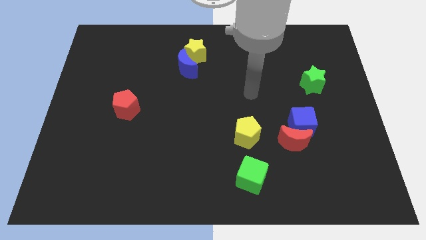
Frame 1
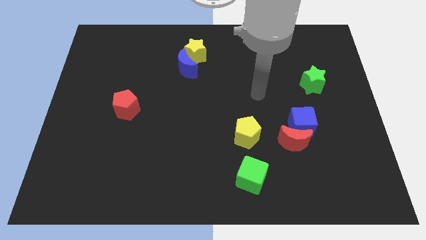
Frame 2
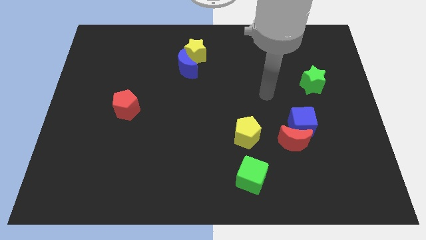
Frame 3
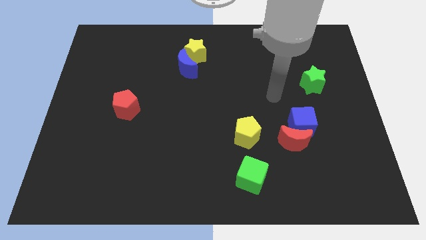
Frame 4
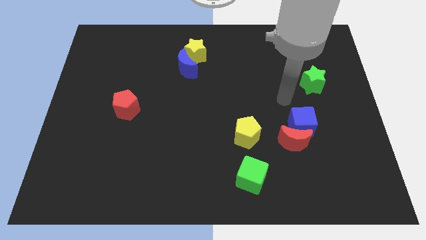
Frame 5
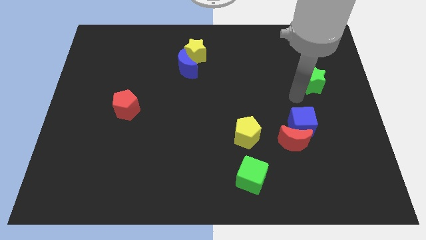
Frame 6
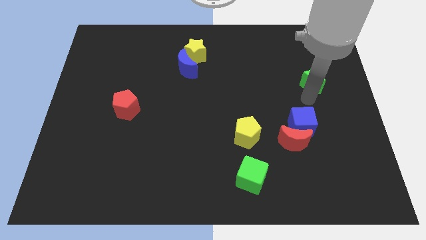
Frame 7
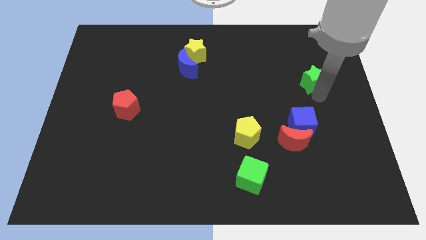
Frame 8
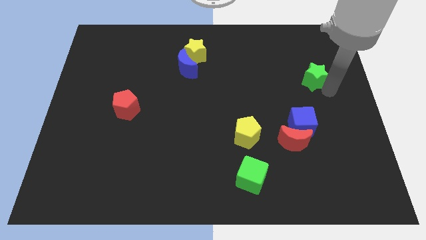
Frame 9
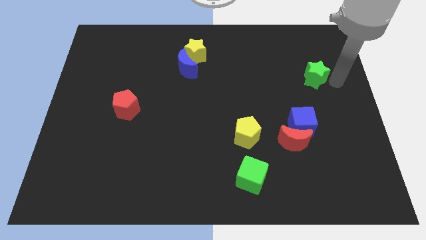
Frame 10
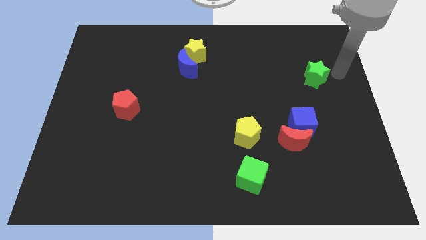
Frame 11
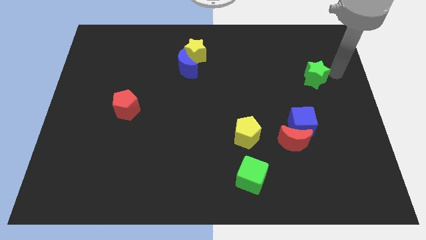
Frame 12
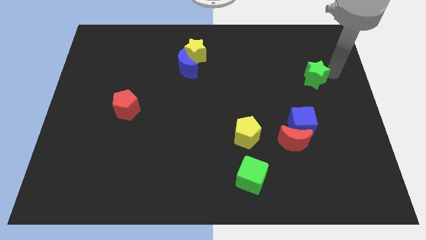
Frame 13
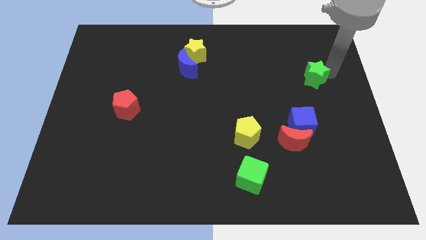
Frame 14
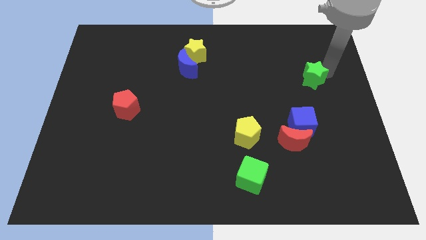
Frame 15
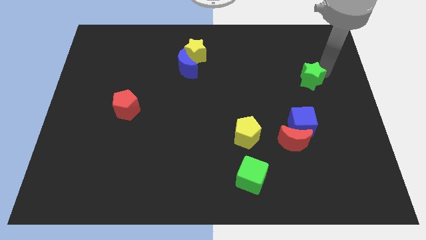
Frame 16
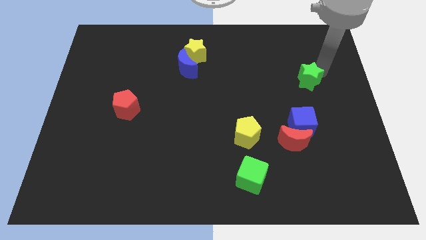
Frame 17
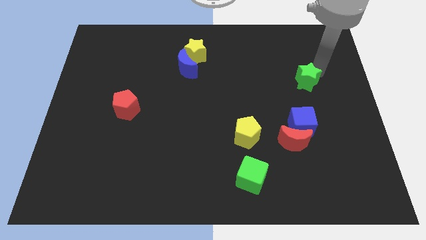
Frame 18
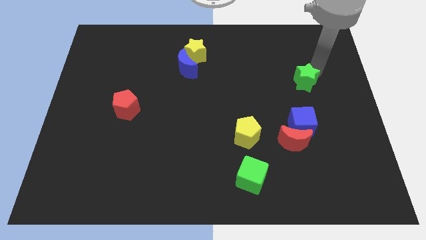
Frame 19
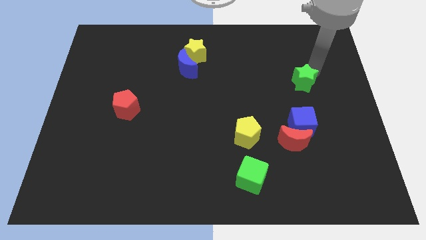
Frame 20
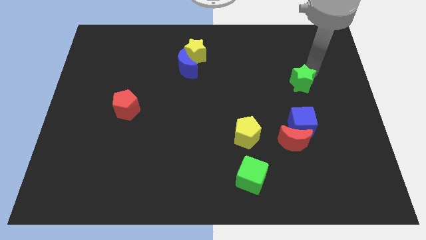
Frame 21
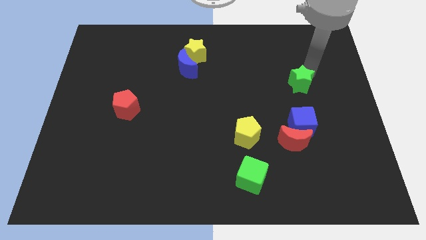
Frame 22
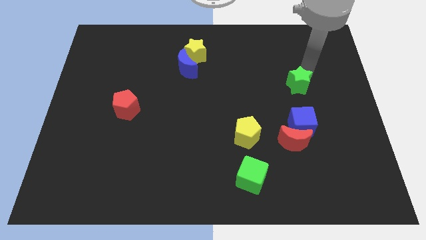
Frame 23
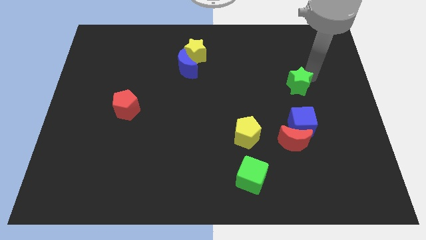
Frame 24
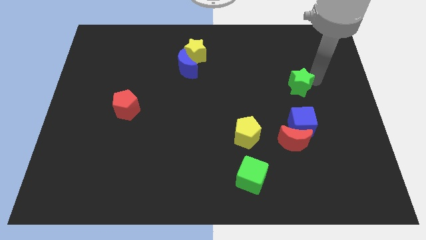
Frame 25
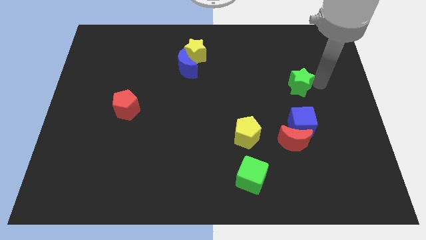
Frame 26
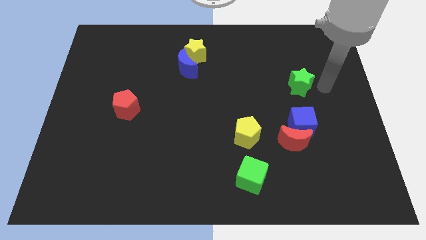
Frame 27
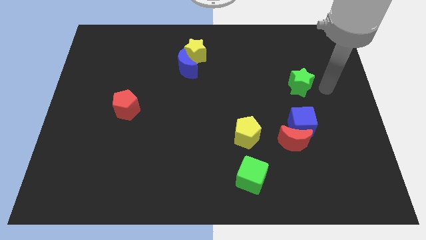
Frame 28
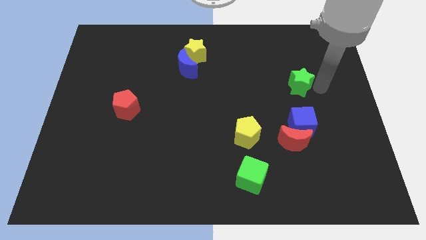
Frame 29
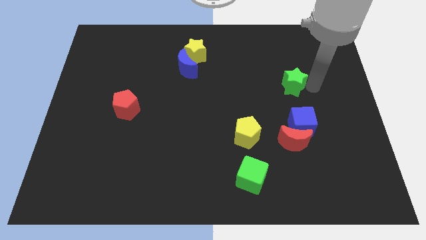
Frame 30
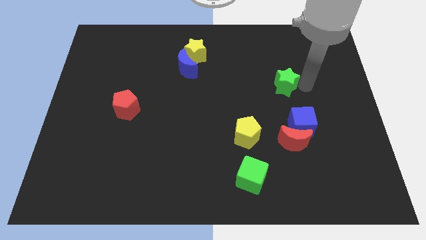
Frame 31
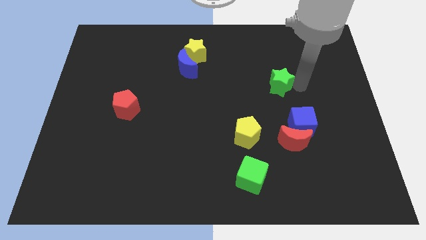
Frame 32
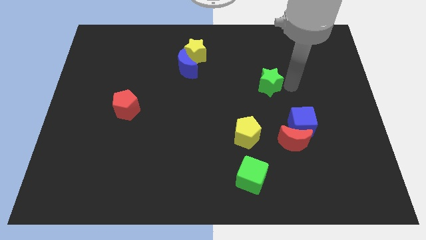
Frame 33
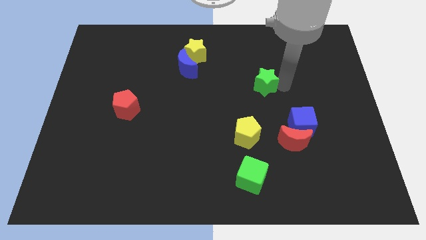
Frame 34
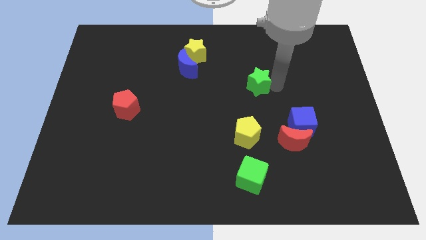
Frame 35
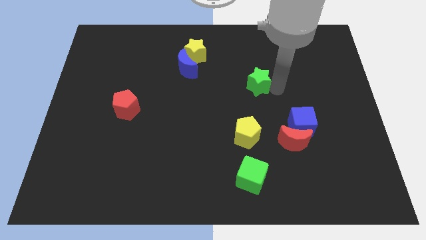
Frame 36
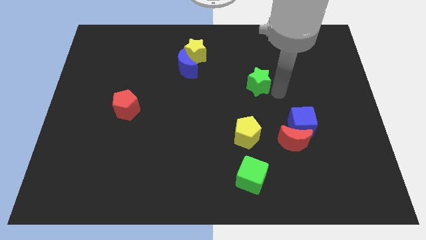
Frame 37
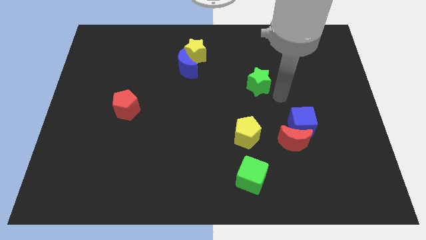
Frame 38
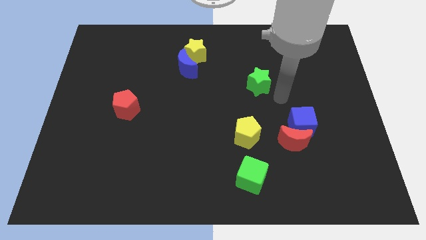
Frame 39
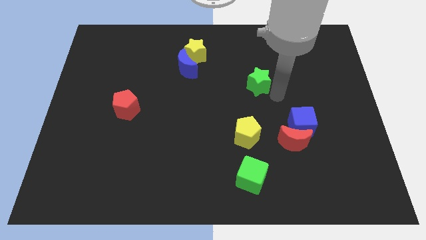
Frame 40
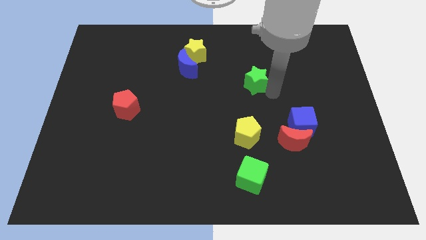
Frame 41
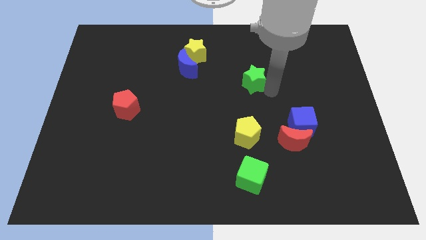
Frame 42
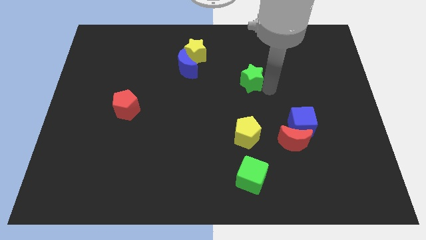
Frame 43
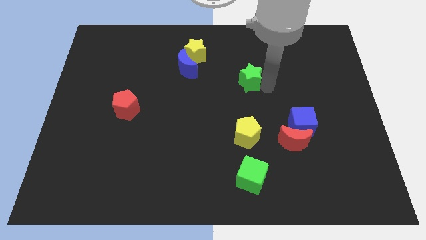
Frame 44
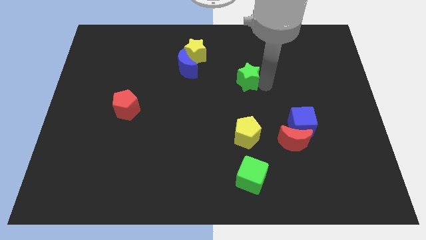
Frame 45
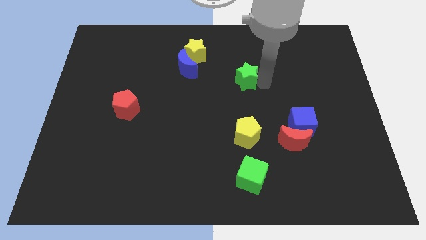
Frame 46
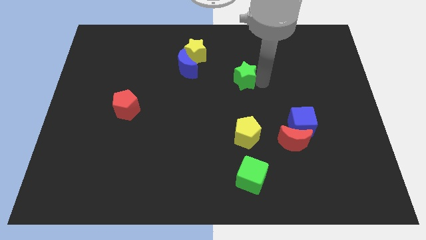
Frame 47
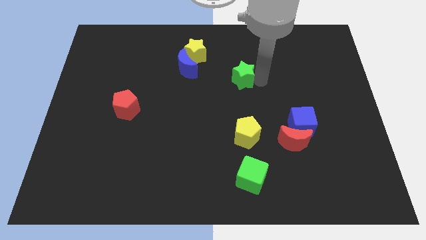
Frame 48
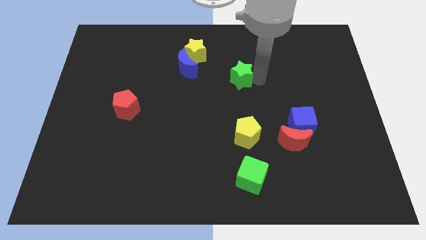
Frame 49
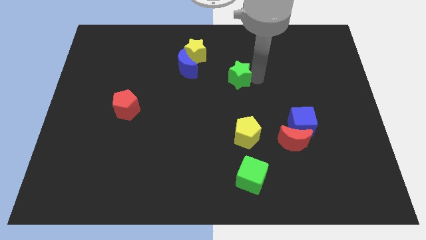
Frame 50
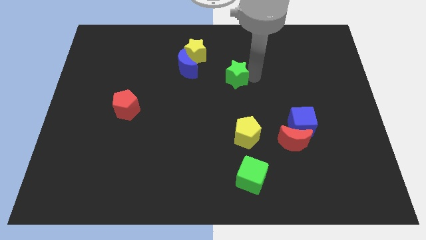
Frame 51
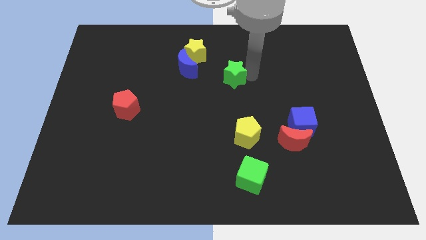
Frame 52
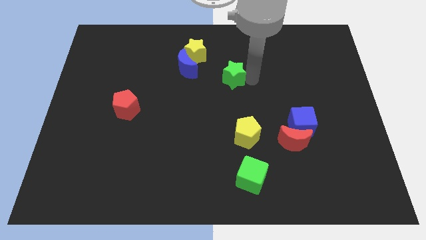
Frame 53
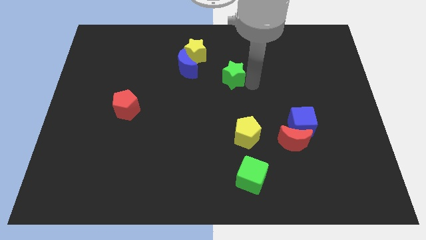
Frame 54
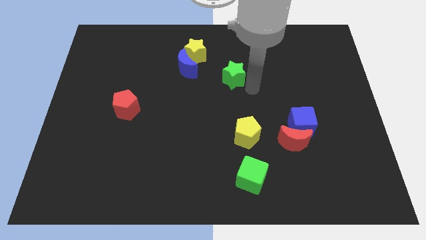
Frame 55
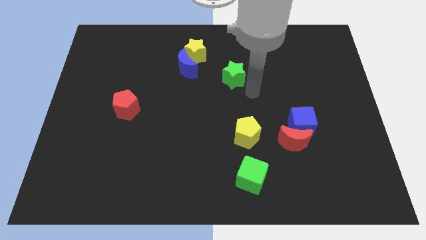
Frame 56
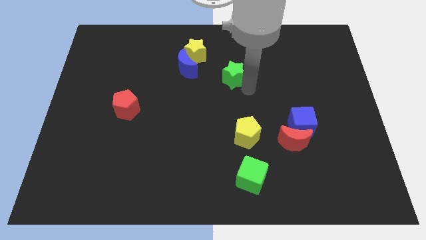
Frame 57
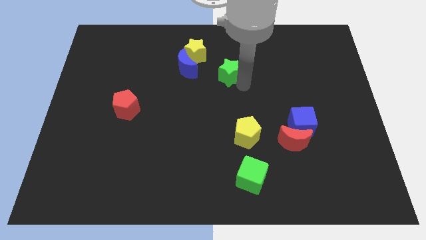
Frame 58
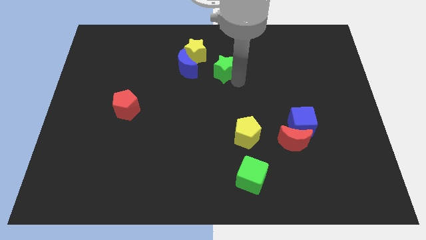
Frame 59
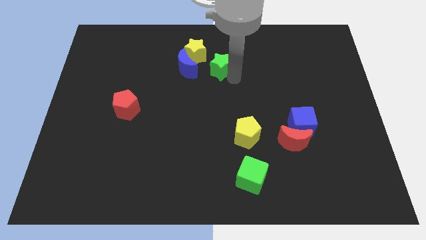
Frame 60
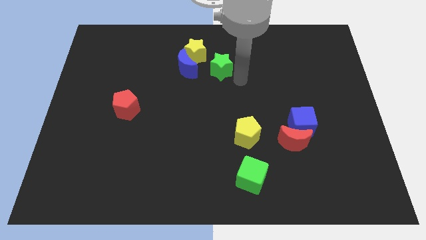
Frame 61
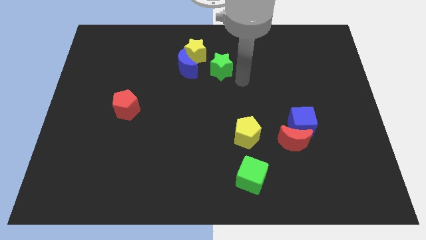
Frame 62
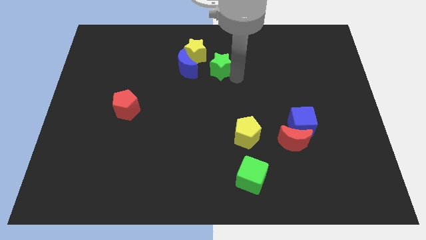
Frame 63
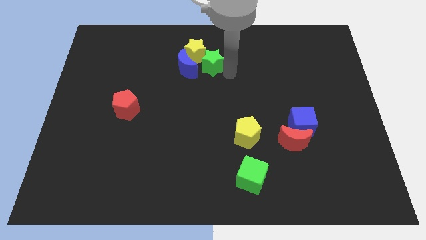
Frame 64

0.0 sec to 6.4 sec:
push the green star towards the yellow star

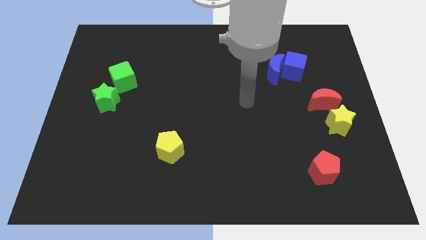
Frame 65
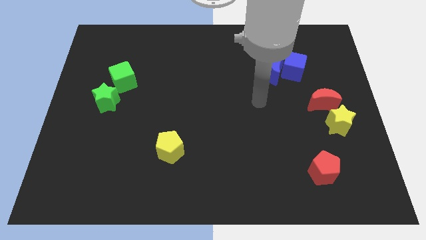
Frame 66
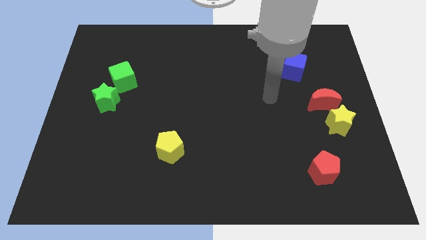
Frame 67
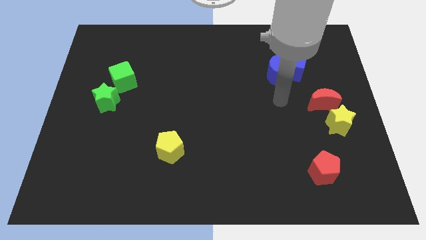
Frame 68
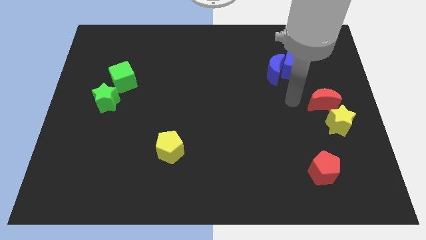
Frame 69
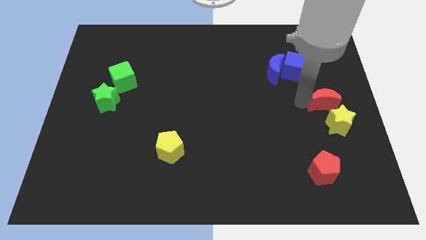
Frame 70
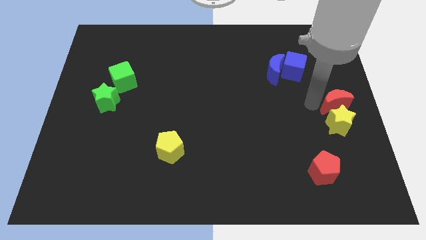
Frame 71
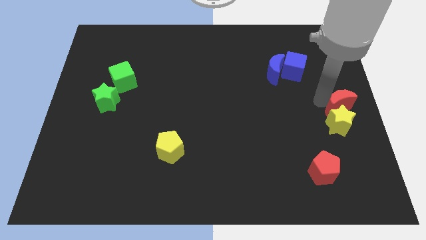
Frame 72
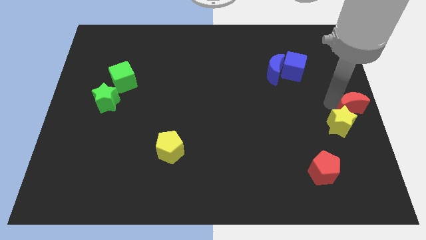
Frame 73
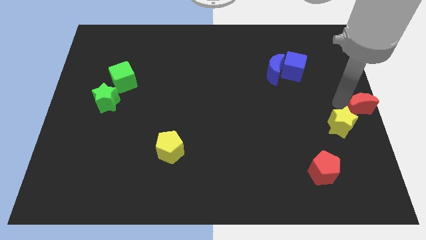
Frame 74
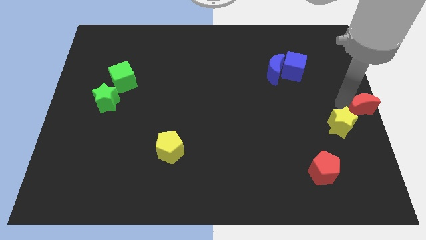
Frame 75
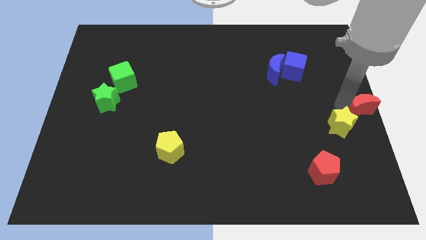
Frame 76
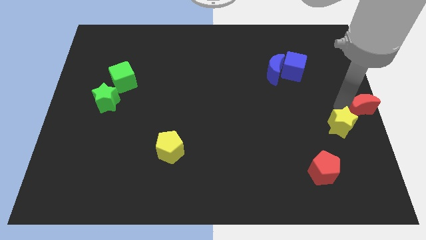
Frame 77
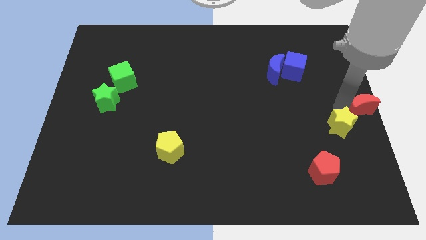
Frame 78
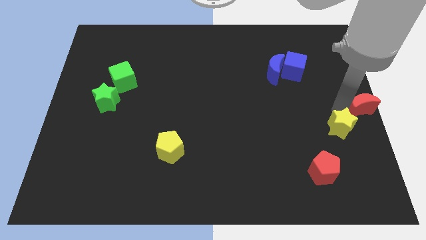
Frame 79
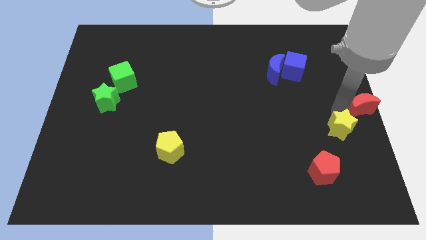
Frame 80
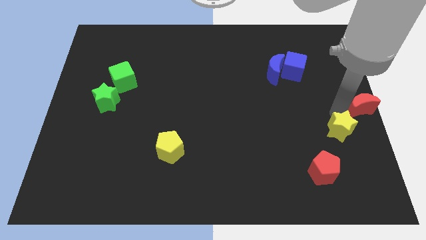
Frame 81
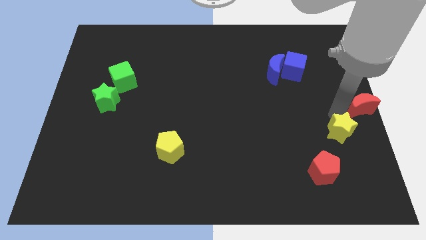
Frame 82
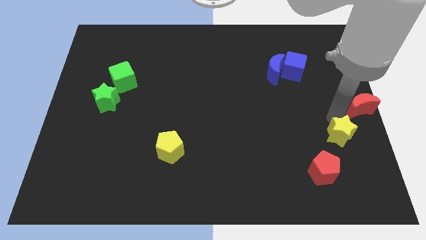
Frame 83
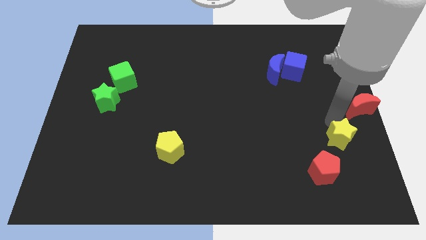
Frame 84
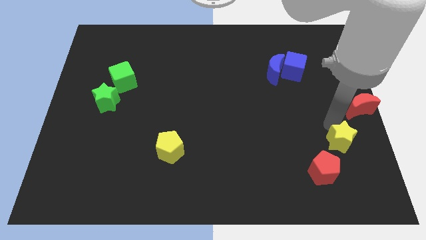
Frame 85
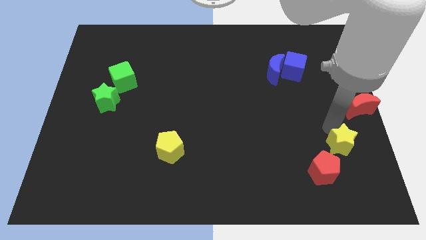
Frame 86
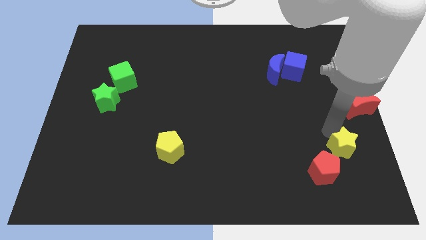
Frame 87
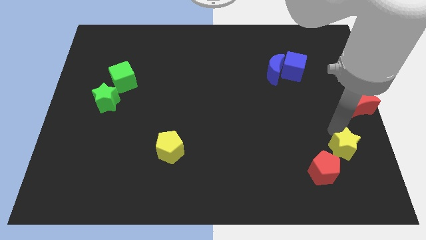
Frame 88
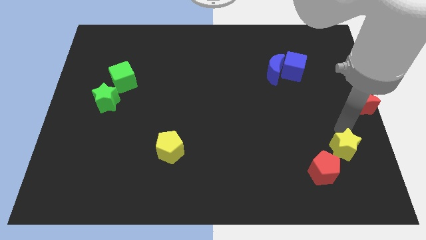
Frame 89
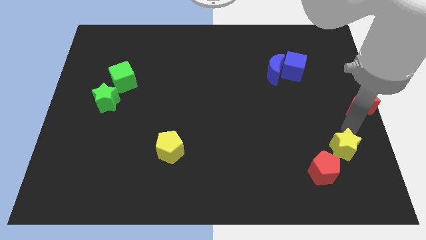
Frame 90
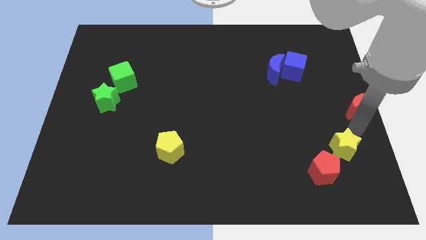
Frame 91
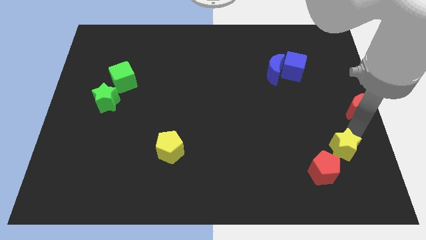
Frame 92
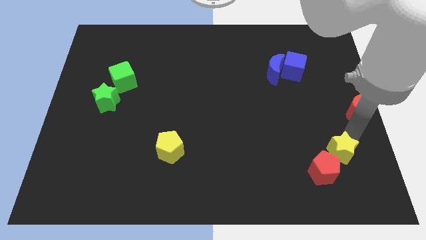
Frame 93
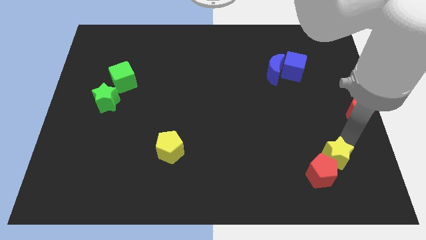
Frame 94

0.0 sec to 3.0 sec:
slide the yellow star next to the red pentagon
